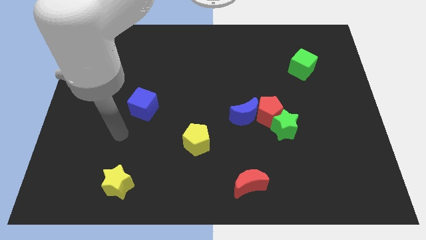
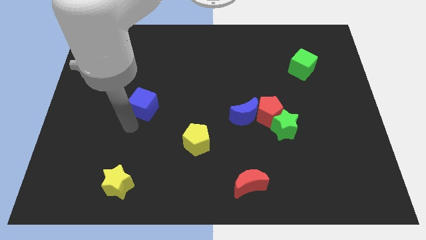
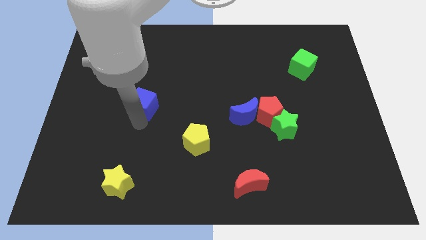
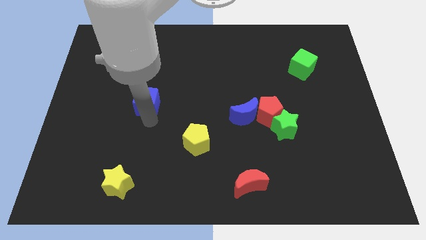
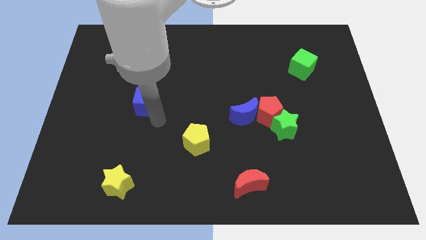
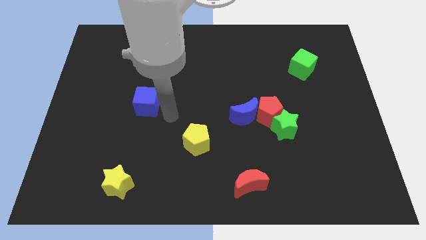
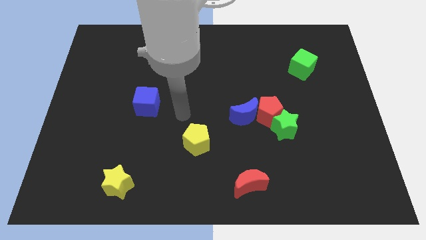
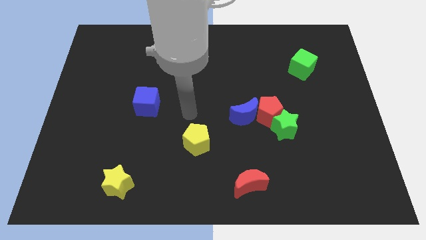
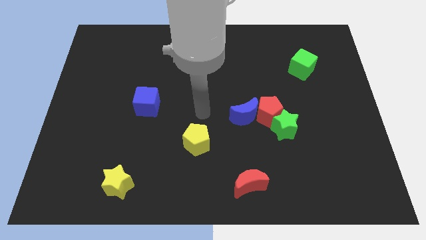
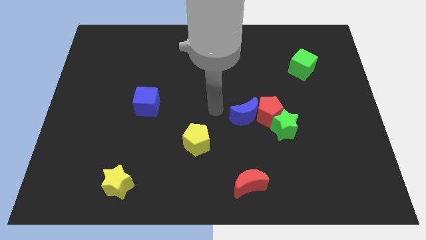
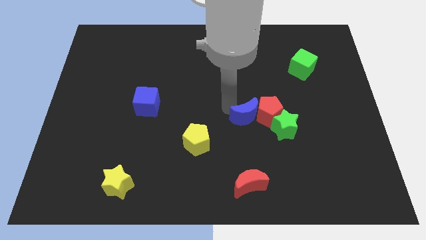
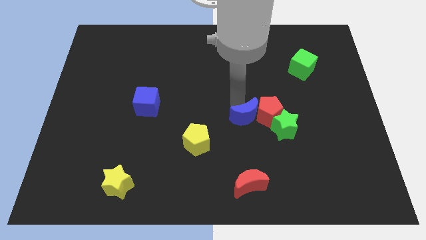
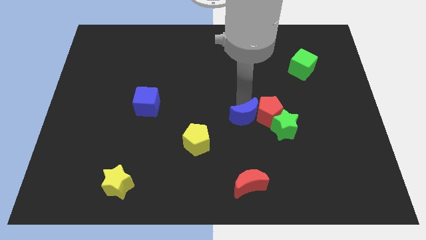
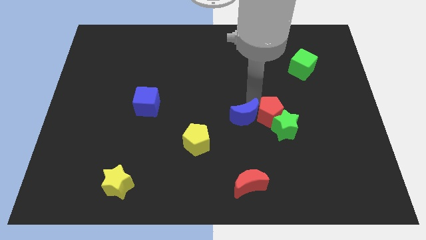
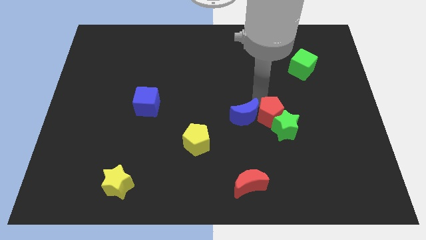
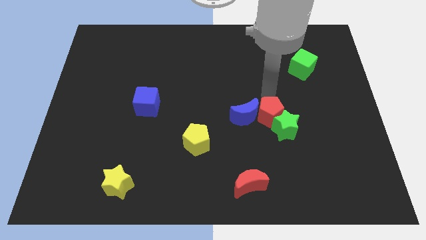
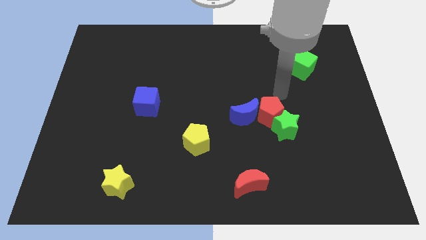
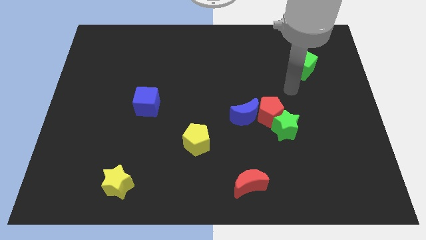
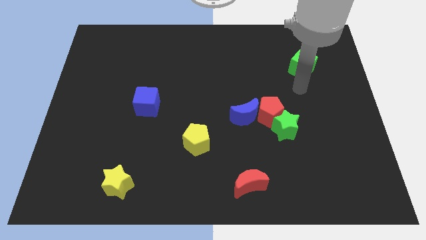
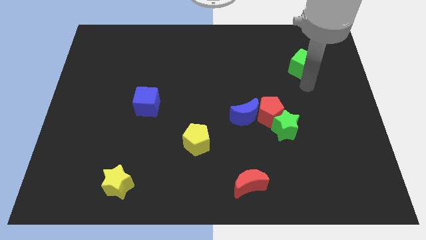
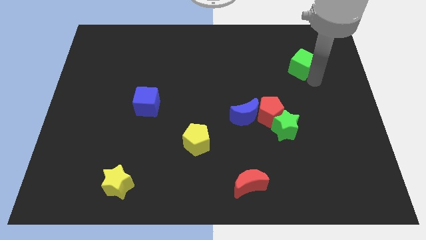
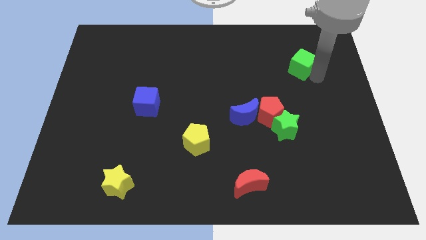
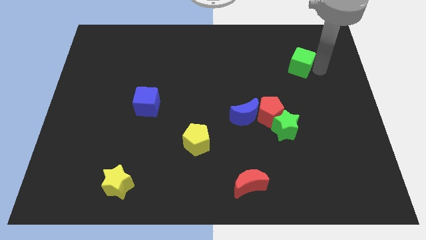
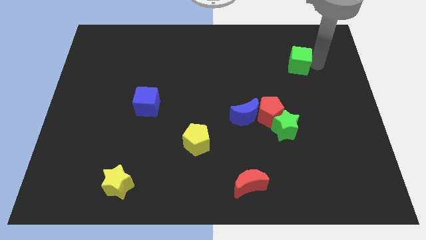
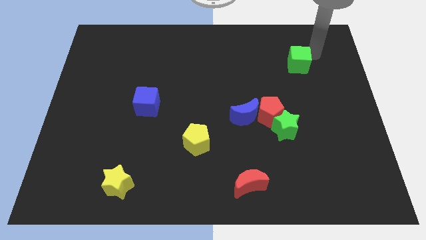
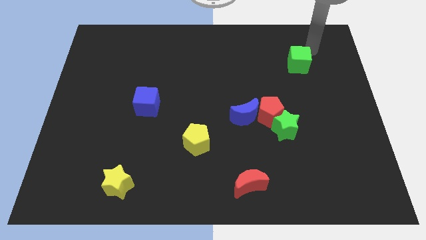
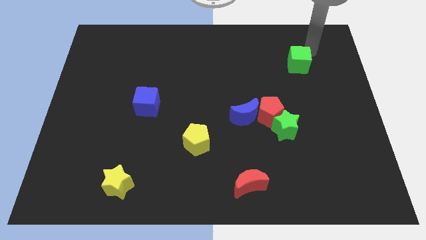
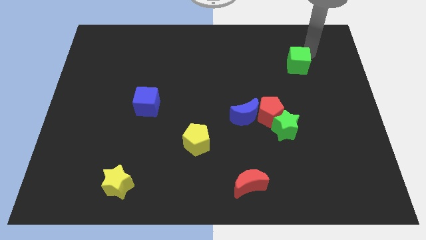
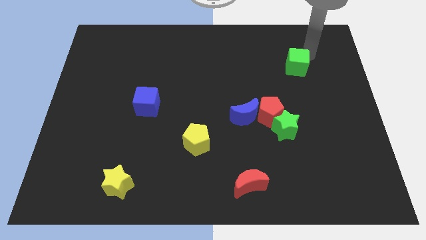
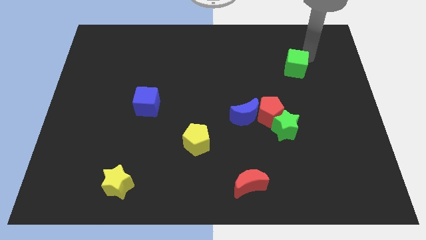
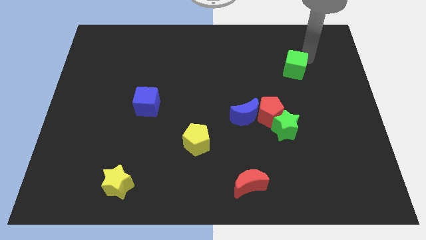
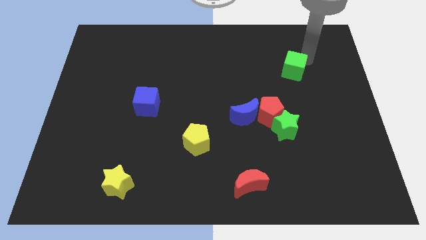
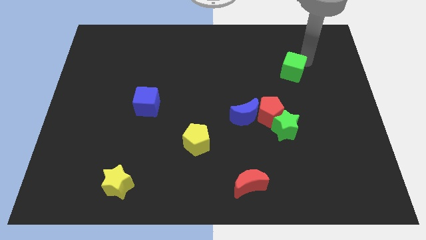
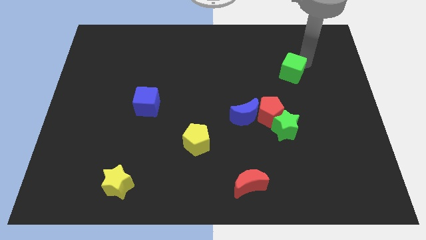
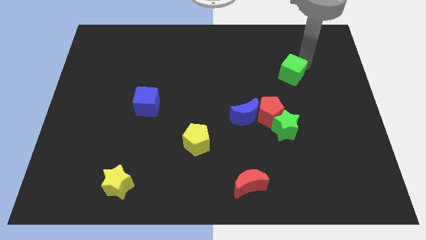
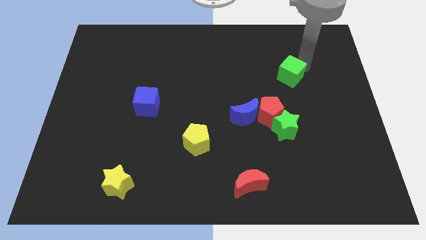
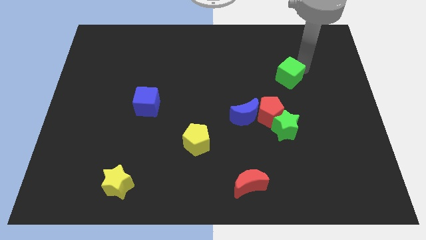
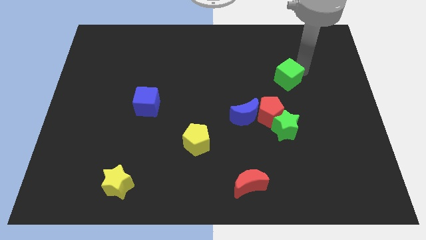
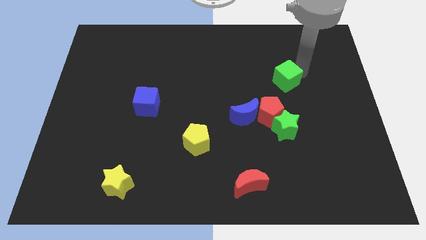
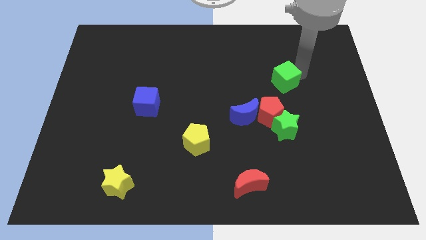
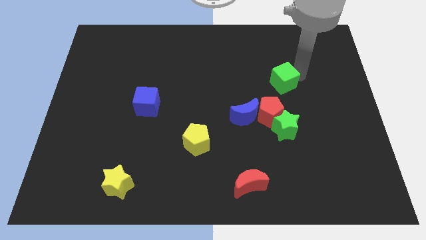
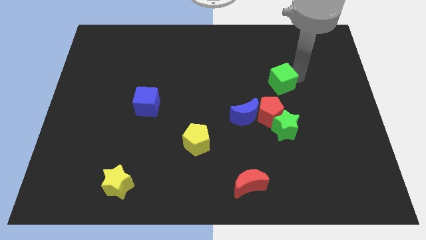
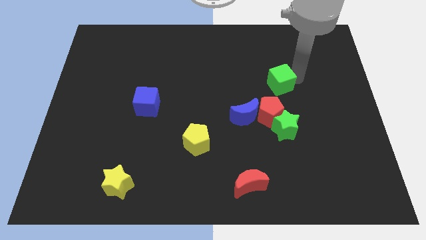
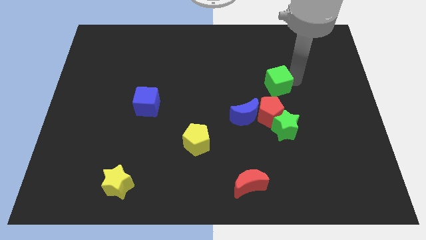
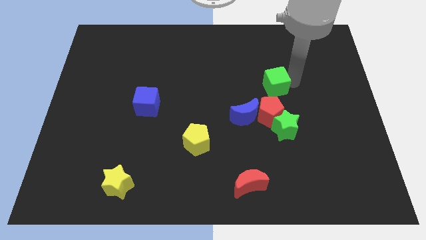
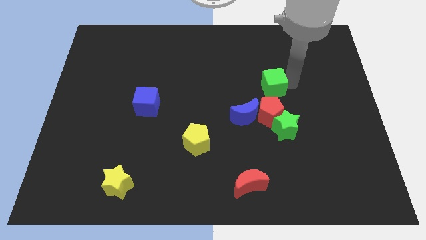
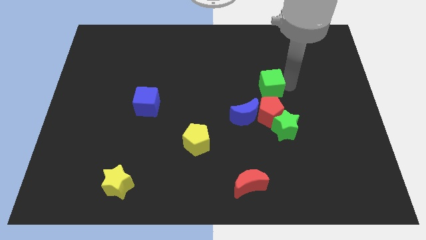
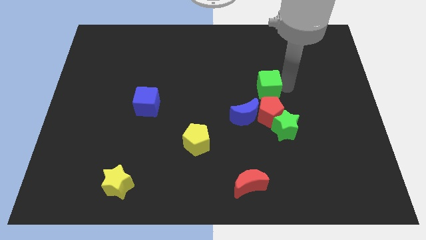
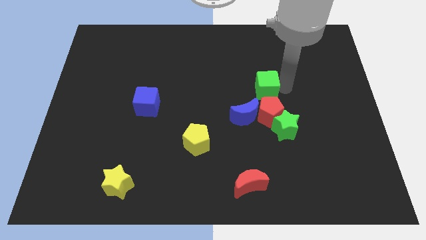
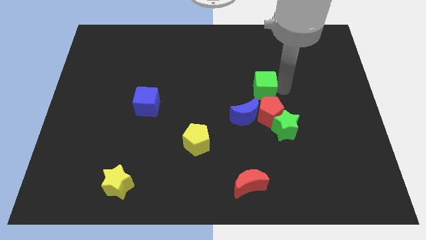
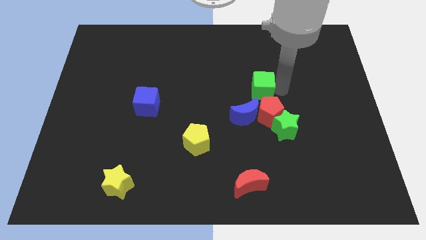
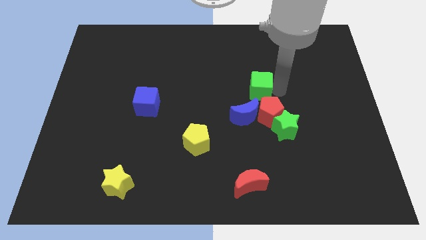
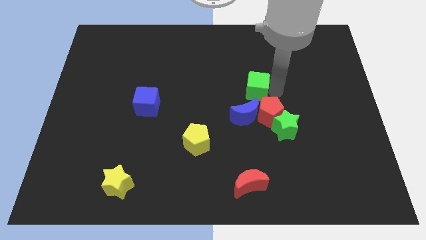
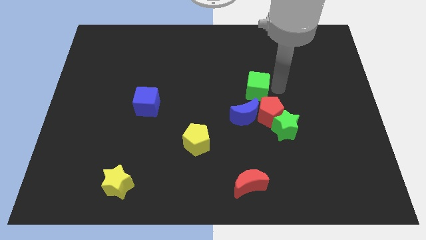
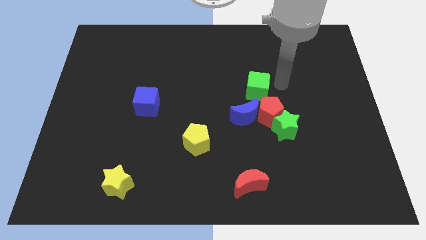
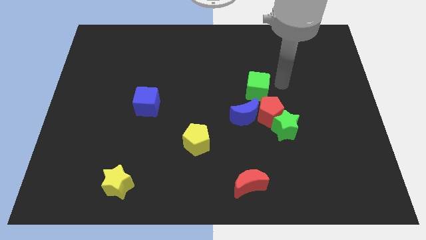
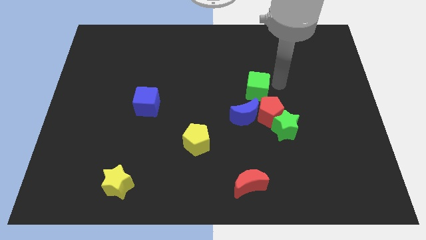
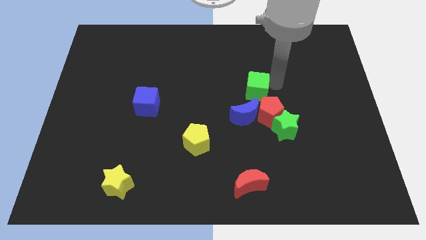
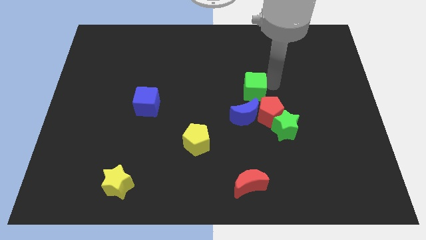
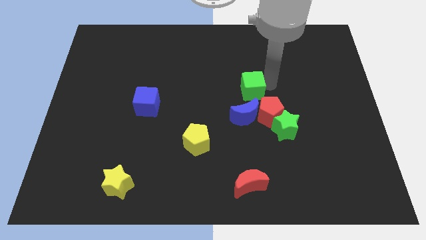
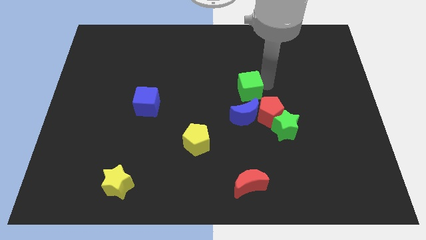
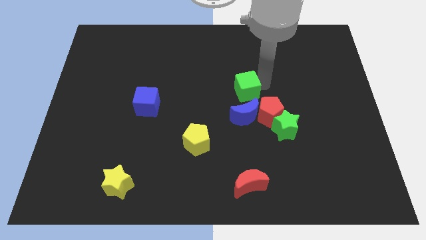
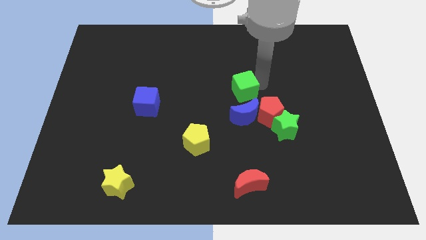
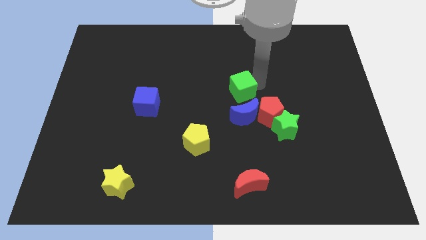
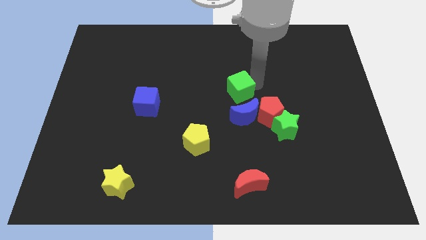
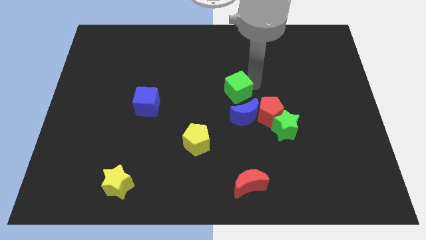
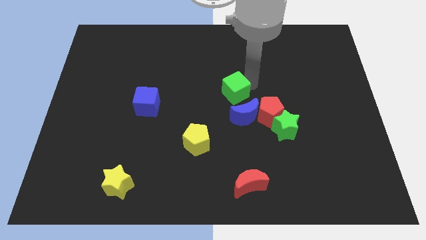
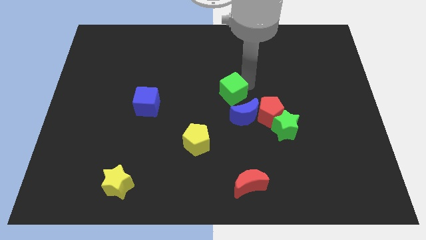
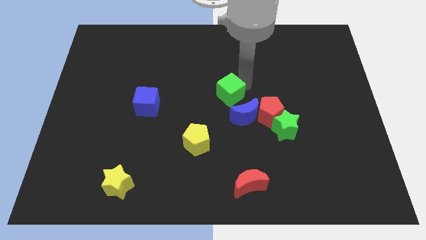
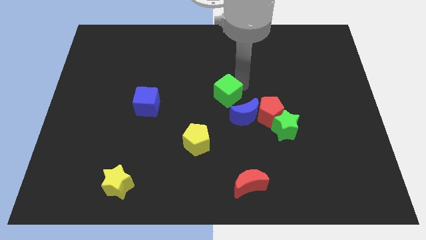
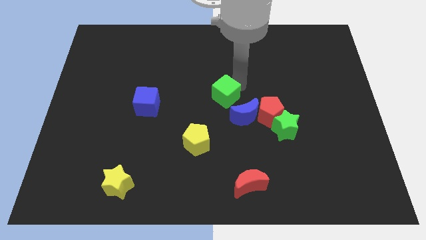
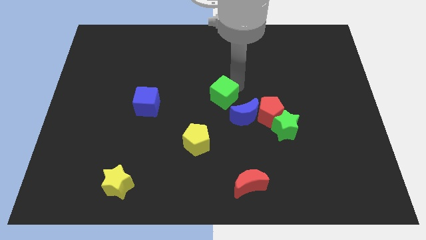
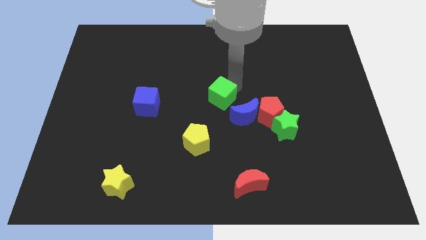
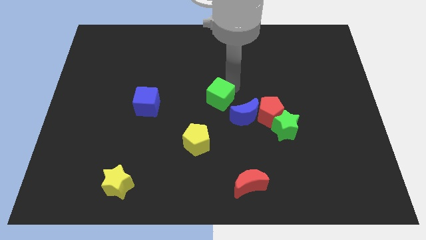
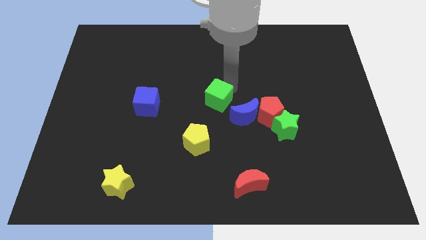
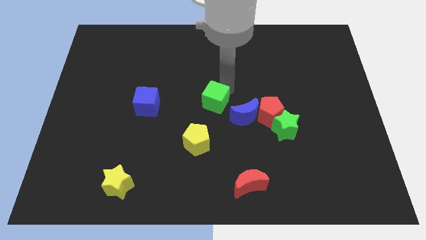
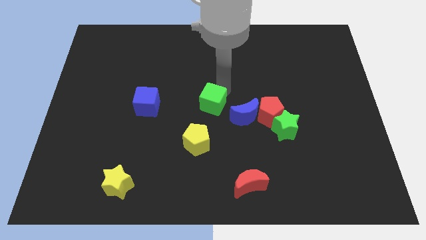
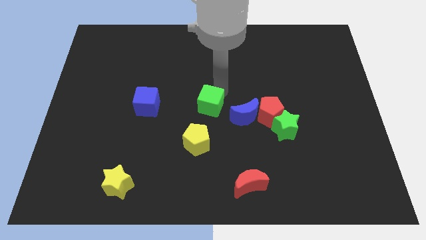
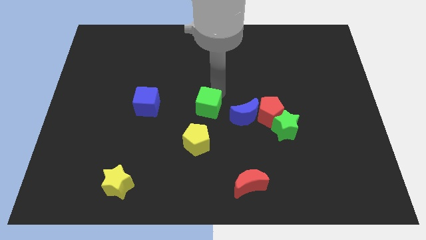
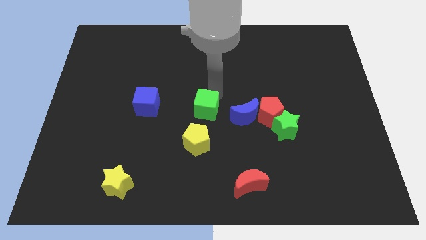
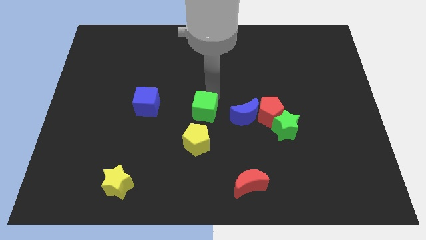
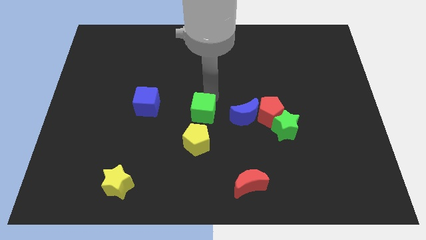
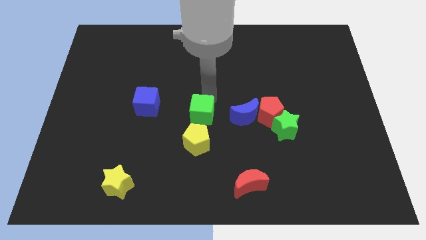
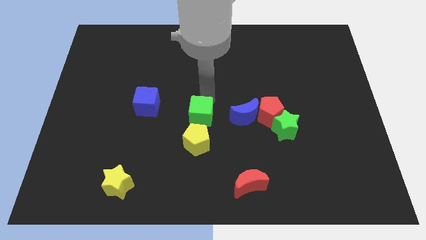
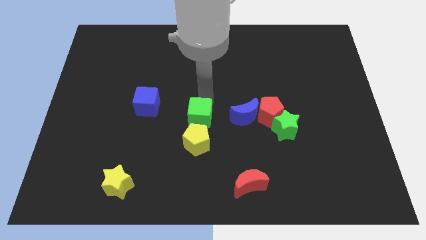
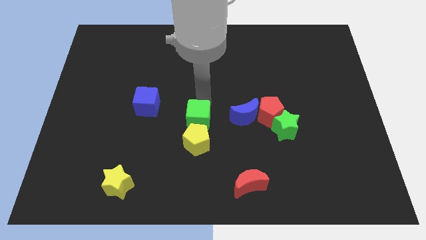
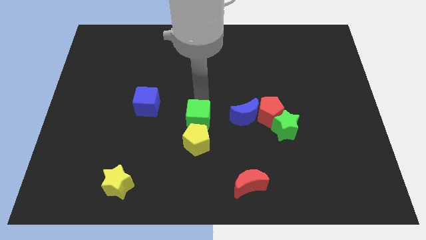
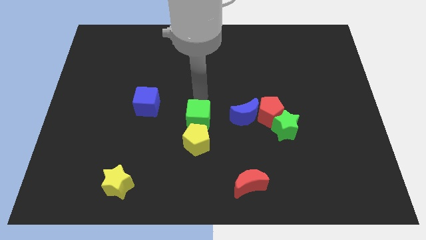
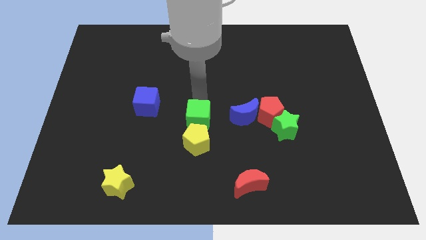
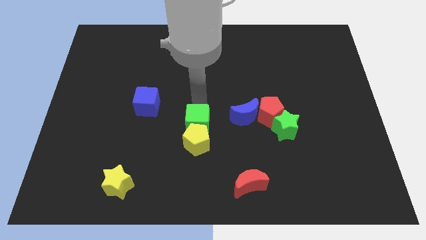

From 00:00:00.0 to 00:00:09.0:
put the green cube close to the yellow pentagon
